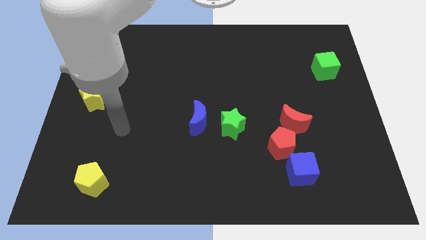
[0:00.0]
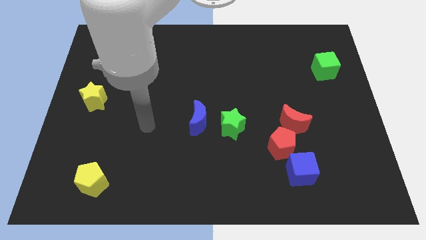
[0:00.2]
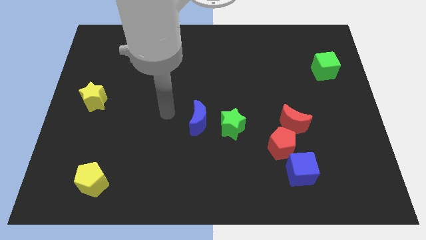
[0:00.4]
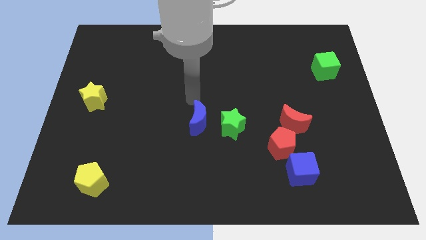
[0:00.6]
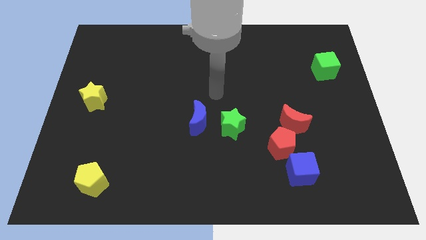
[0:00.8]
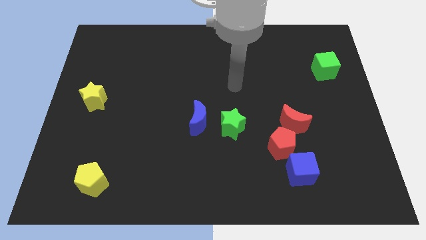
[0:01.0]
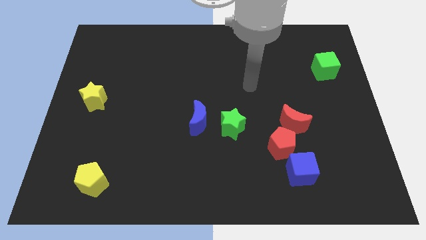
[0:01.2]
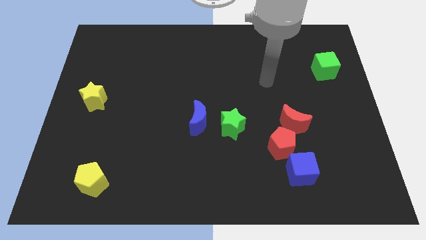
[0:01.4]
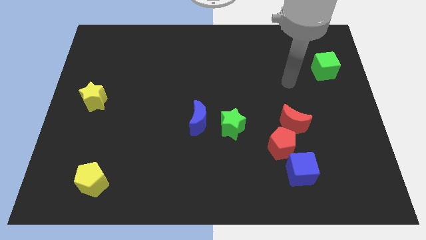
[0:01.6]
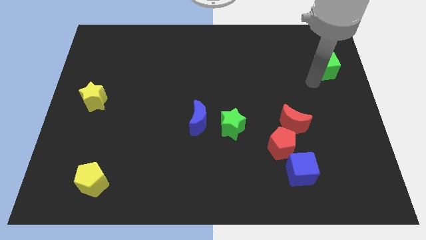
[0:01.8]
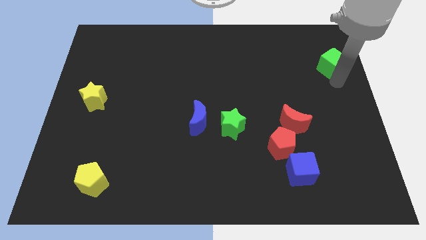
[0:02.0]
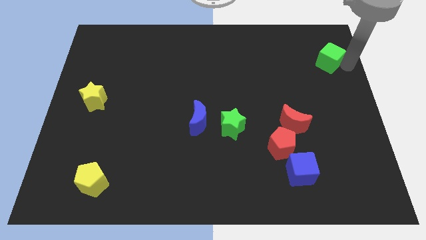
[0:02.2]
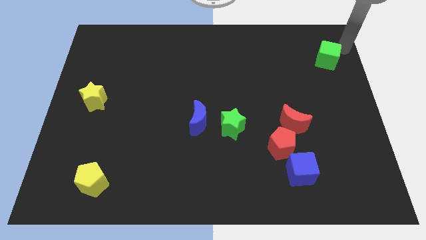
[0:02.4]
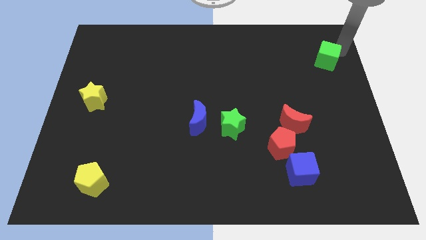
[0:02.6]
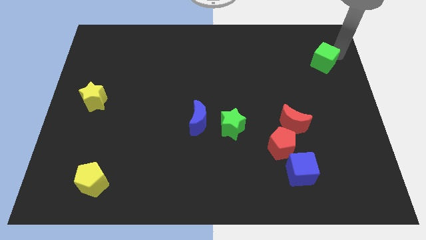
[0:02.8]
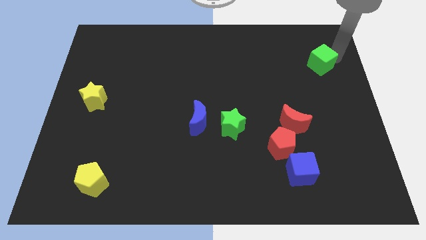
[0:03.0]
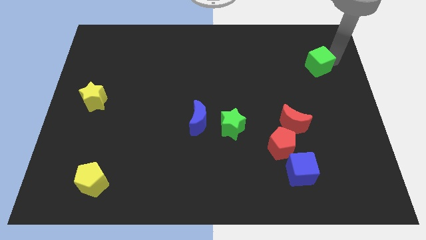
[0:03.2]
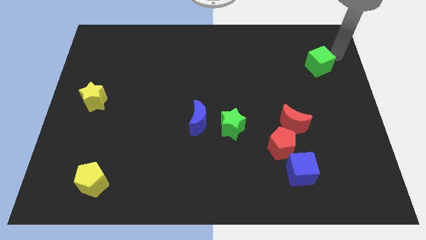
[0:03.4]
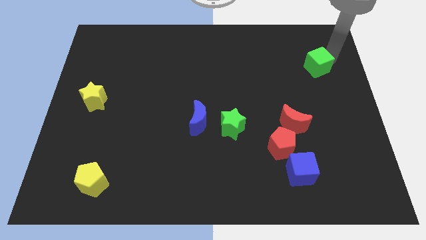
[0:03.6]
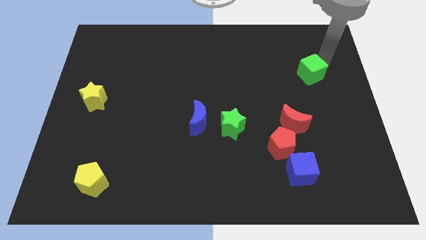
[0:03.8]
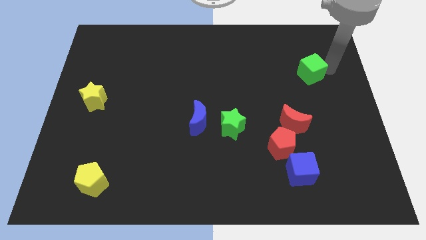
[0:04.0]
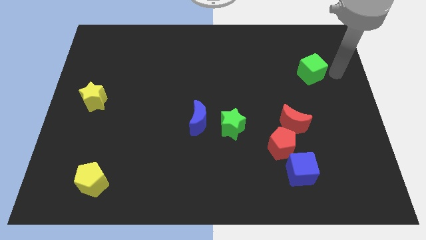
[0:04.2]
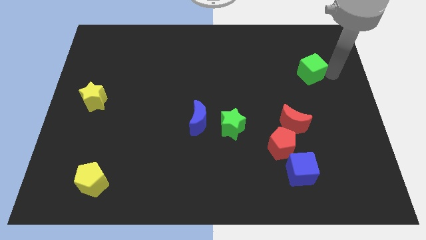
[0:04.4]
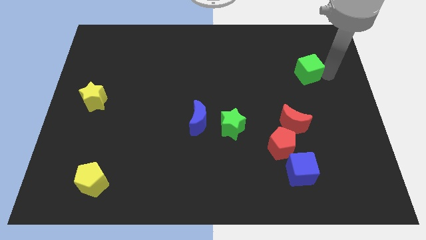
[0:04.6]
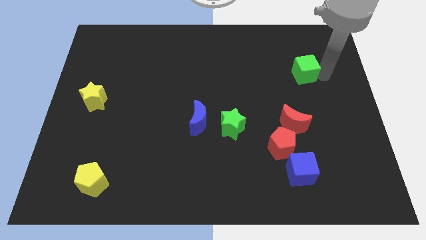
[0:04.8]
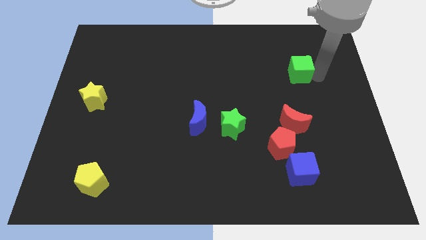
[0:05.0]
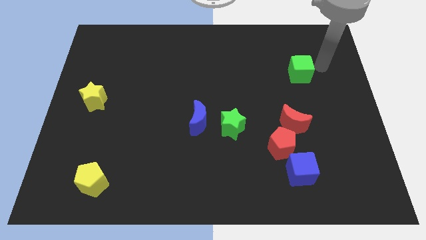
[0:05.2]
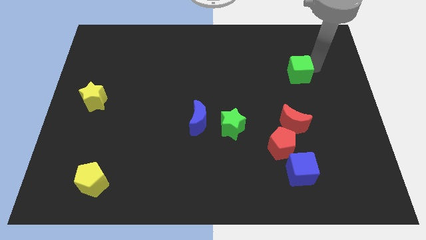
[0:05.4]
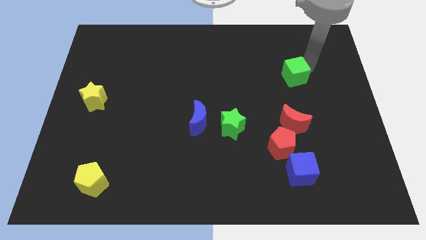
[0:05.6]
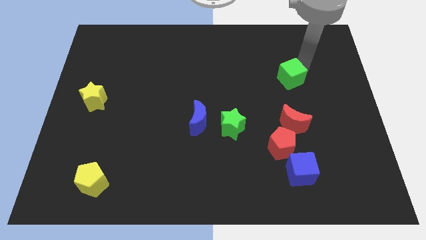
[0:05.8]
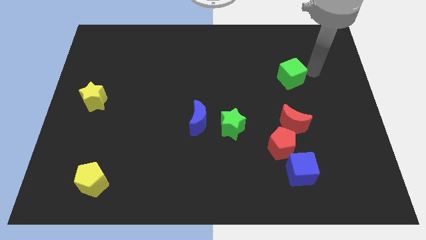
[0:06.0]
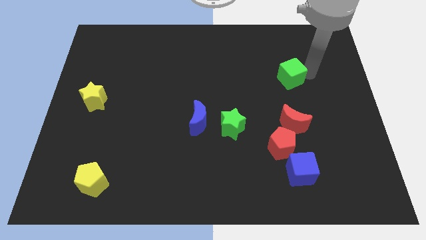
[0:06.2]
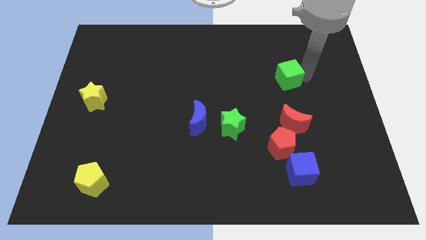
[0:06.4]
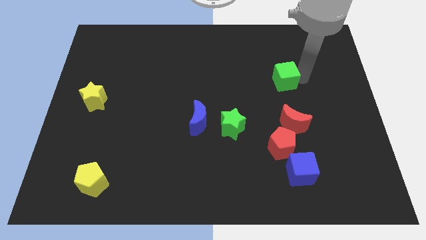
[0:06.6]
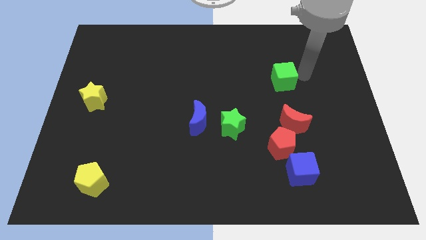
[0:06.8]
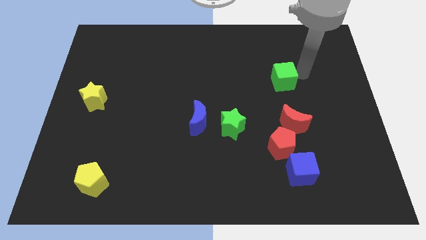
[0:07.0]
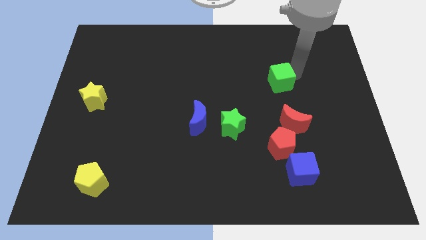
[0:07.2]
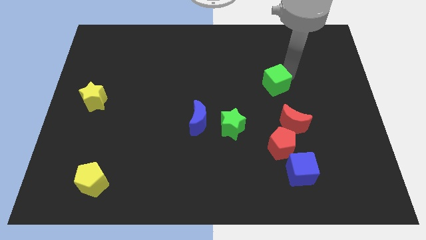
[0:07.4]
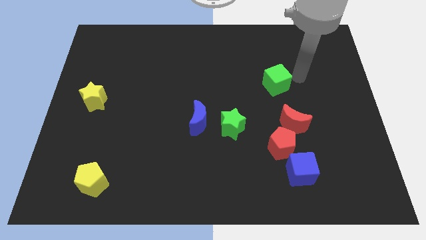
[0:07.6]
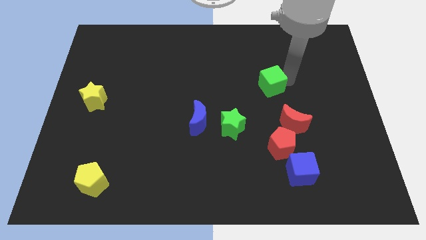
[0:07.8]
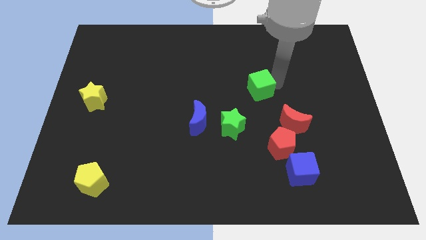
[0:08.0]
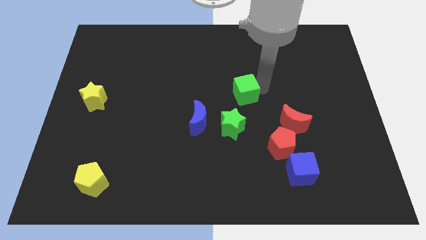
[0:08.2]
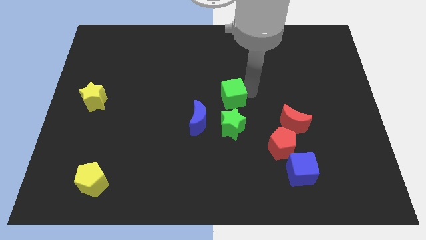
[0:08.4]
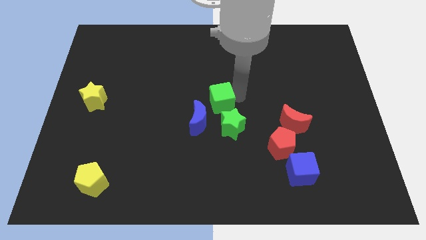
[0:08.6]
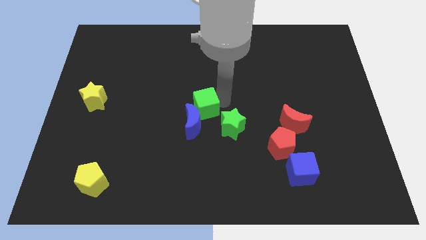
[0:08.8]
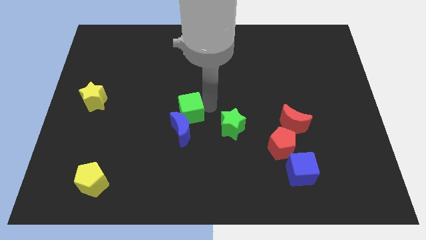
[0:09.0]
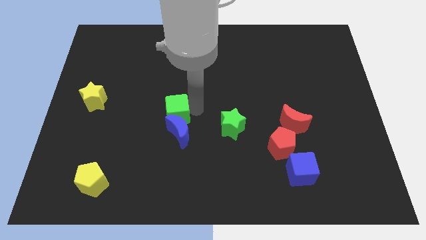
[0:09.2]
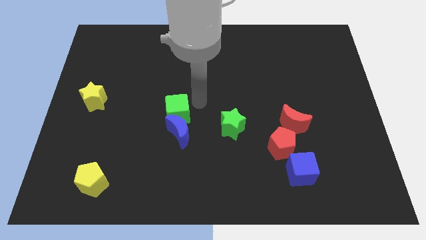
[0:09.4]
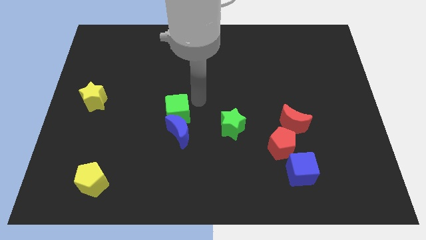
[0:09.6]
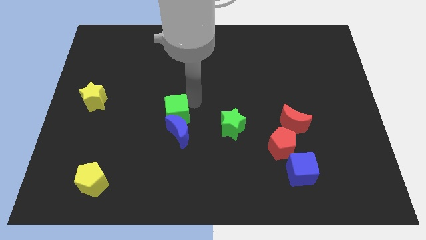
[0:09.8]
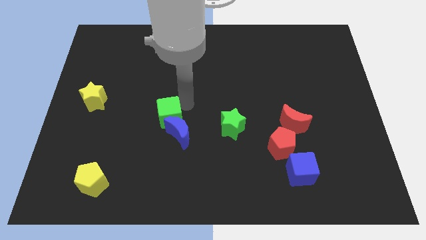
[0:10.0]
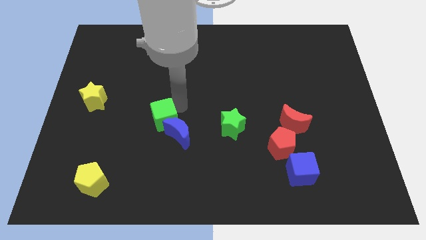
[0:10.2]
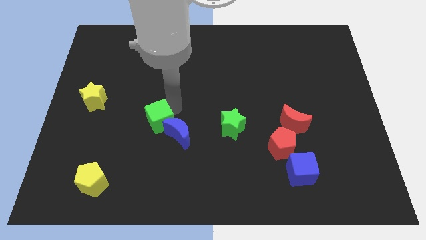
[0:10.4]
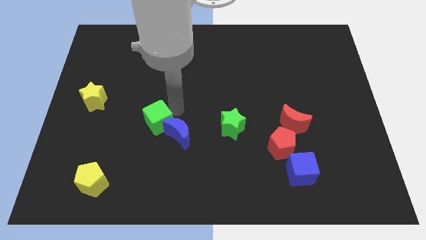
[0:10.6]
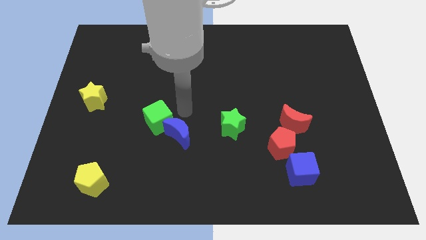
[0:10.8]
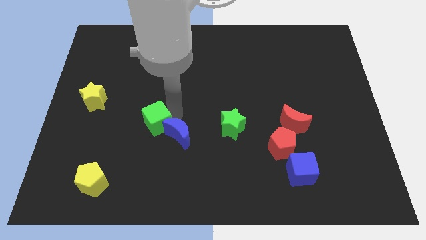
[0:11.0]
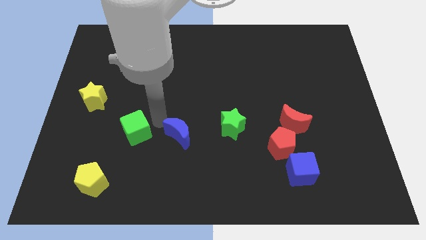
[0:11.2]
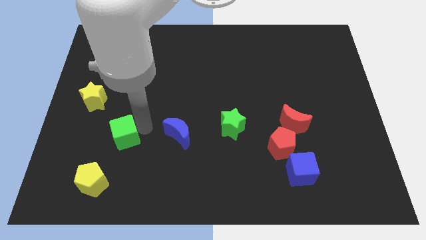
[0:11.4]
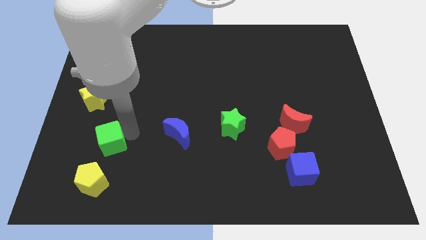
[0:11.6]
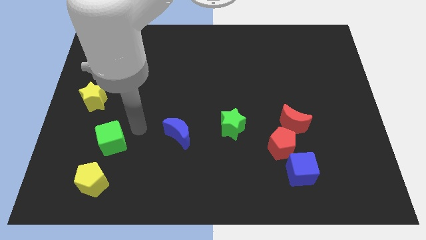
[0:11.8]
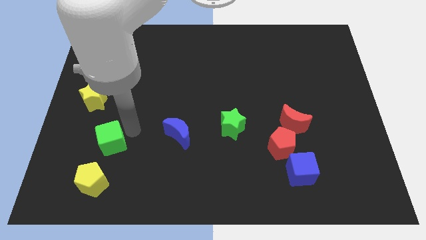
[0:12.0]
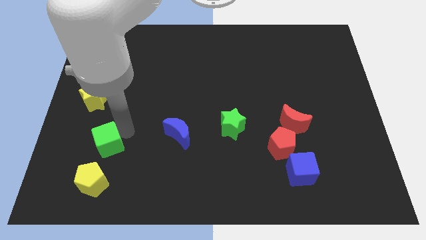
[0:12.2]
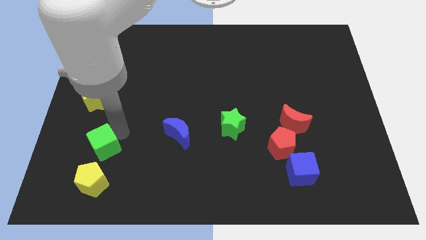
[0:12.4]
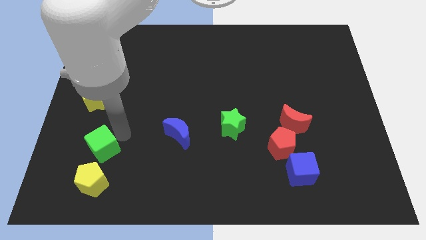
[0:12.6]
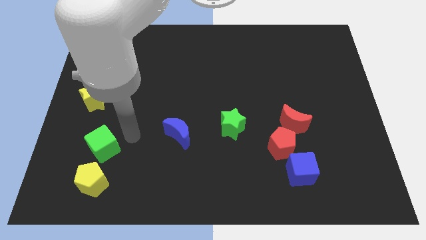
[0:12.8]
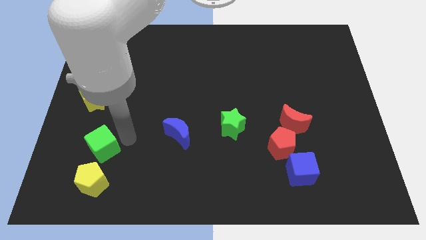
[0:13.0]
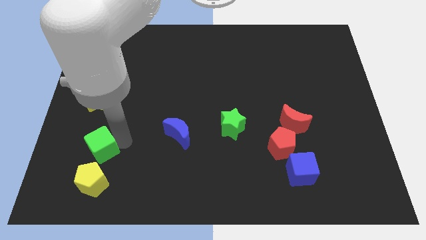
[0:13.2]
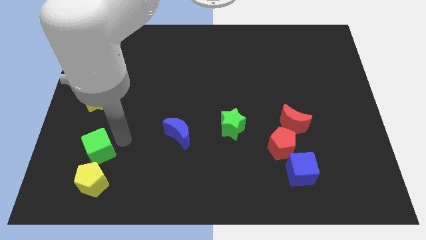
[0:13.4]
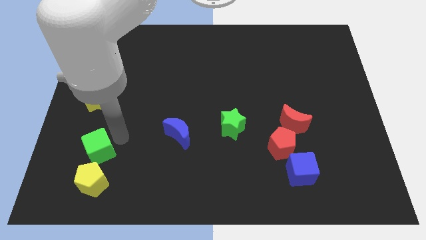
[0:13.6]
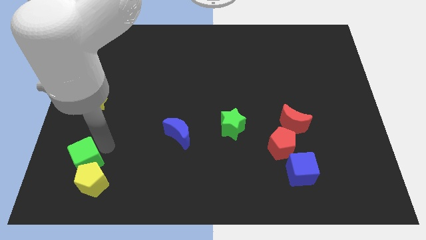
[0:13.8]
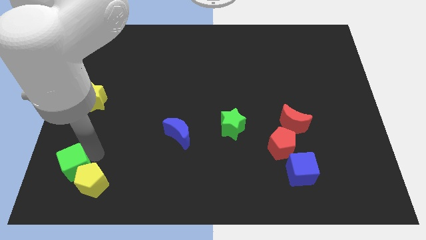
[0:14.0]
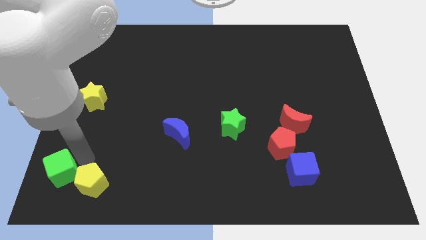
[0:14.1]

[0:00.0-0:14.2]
push the green cube to the bottom left
